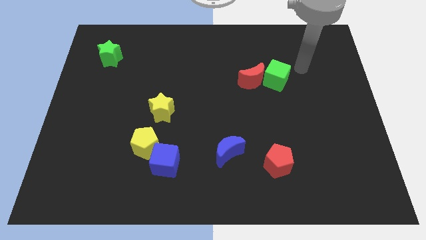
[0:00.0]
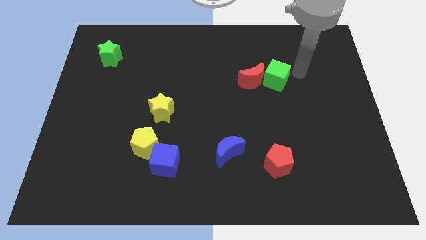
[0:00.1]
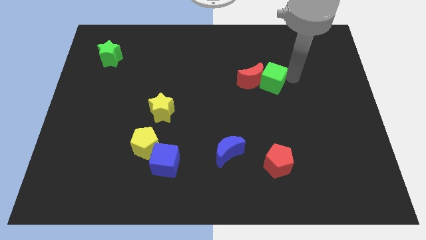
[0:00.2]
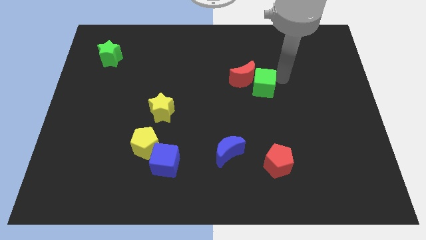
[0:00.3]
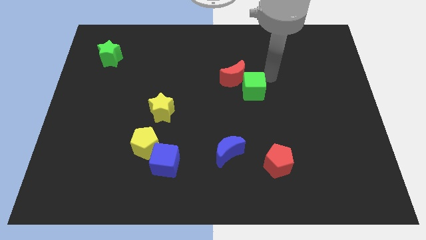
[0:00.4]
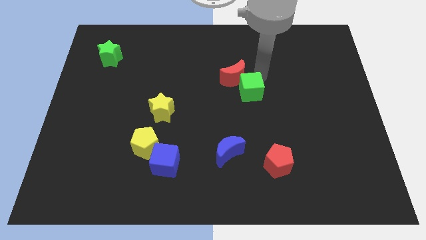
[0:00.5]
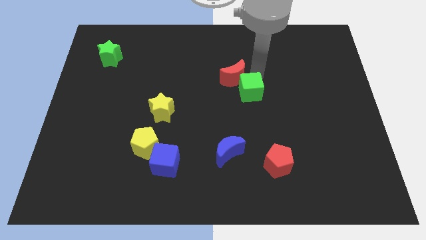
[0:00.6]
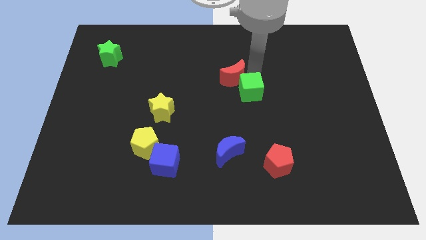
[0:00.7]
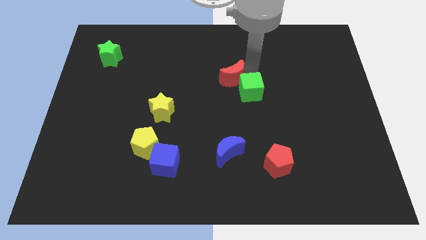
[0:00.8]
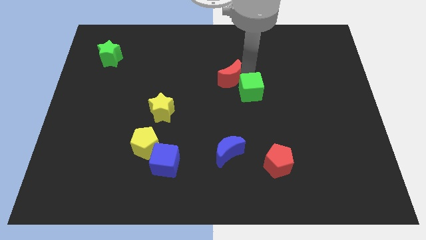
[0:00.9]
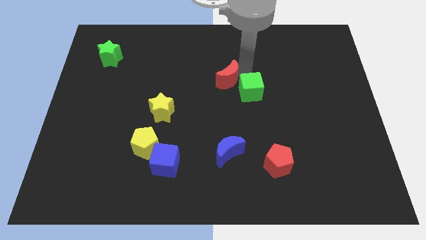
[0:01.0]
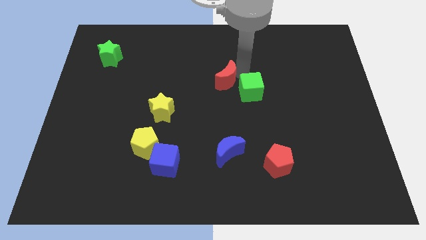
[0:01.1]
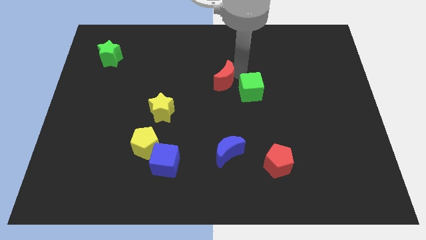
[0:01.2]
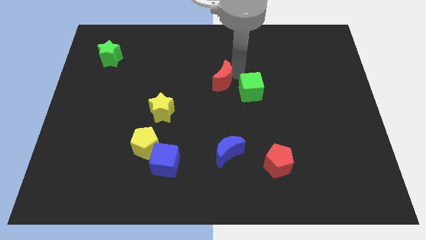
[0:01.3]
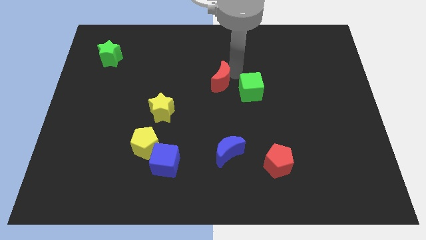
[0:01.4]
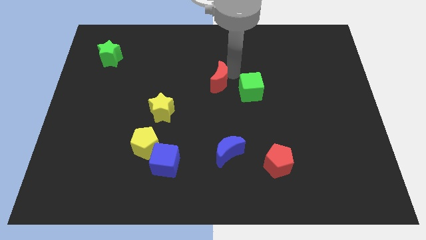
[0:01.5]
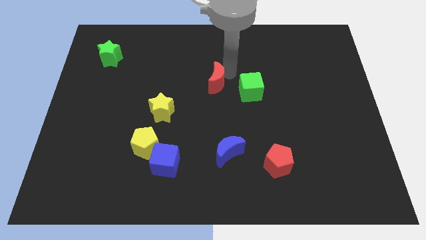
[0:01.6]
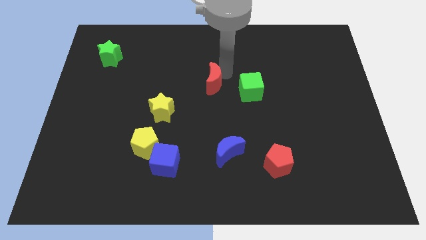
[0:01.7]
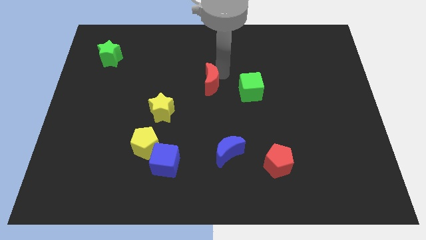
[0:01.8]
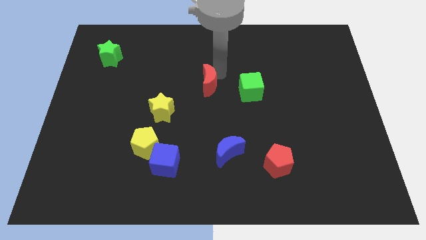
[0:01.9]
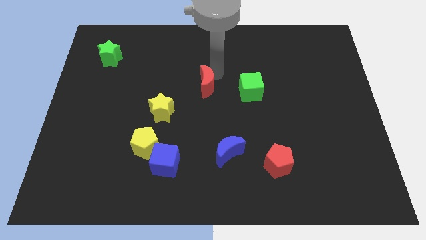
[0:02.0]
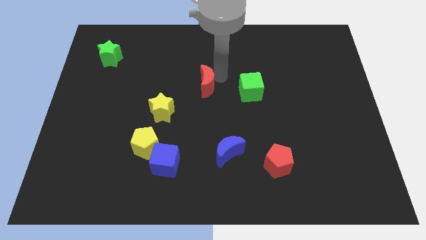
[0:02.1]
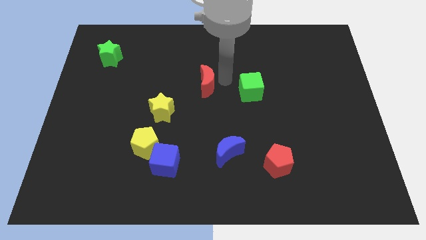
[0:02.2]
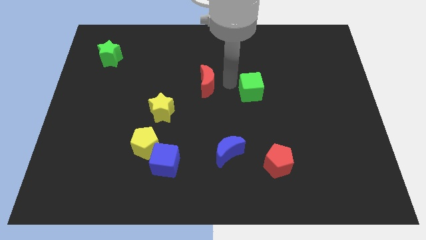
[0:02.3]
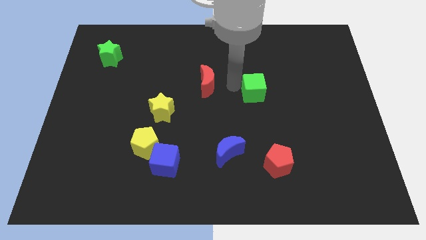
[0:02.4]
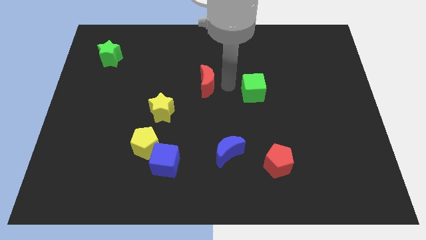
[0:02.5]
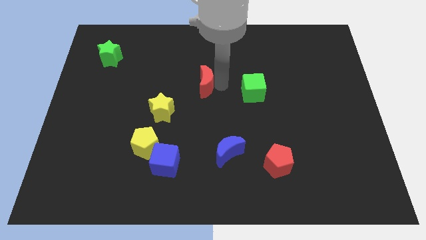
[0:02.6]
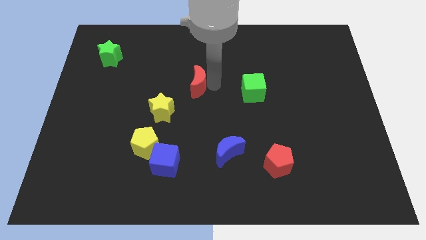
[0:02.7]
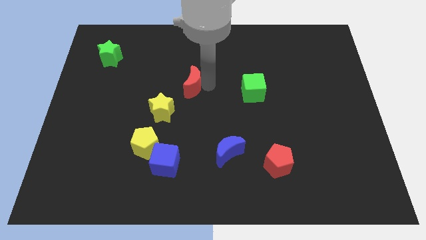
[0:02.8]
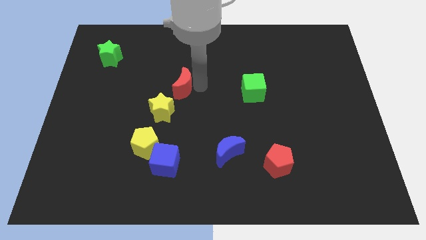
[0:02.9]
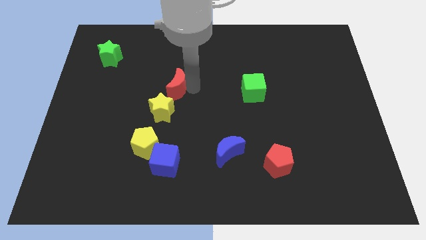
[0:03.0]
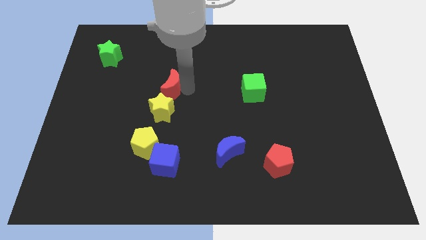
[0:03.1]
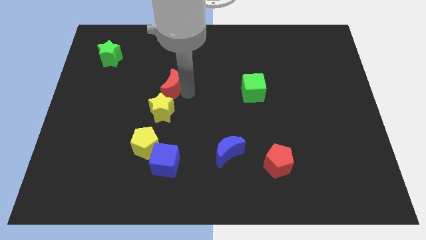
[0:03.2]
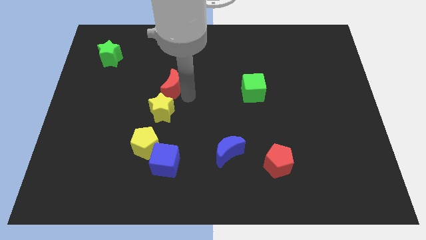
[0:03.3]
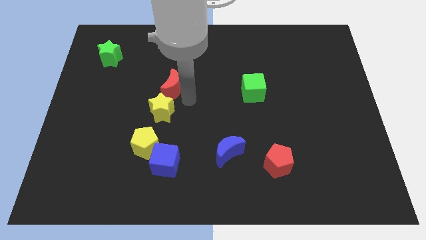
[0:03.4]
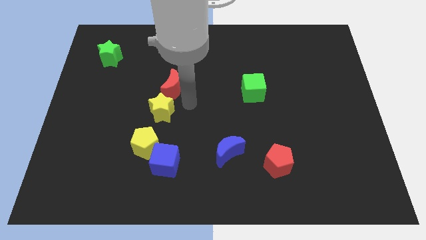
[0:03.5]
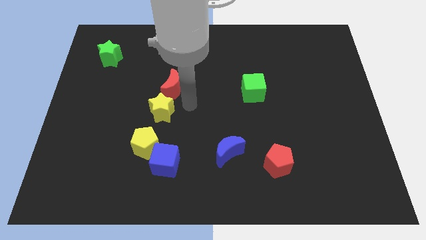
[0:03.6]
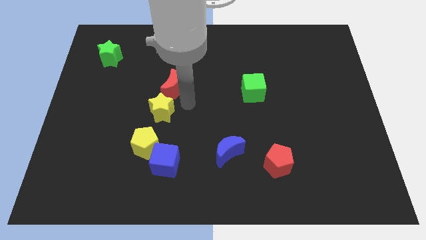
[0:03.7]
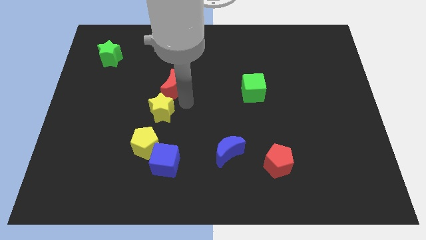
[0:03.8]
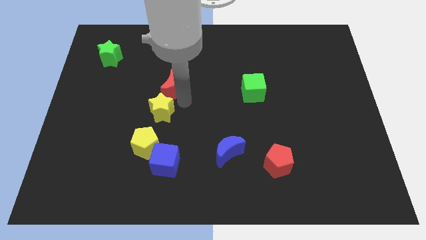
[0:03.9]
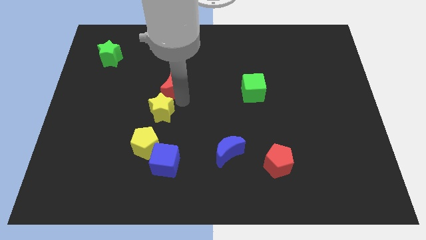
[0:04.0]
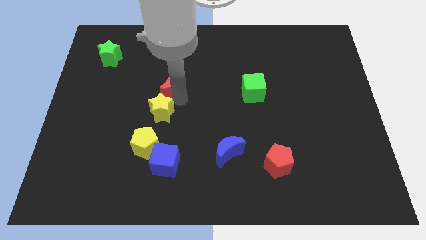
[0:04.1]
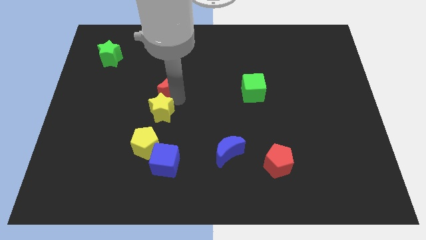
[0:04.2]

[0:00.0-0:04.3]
move the red moon left

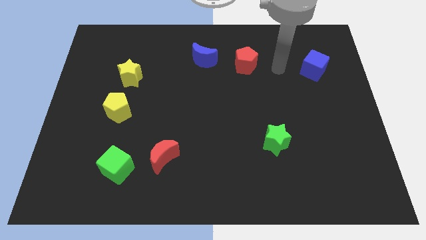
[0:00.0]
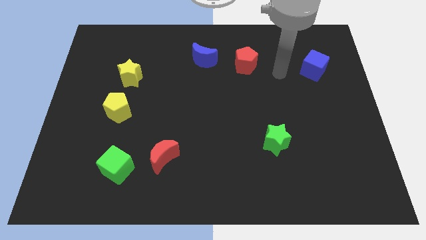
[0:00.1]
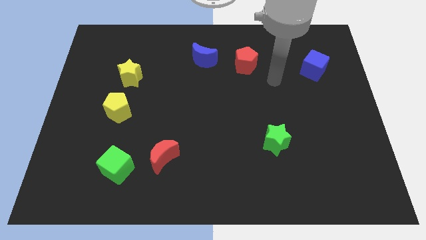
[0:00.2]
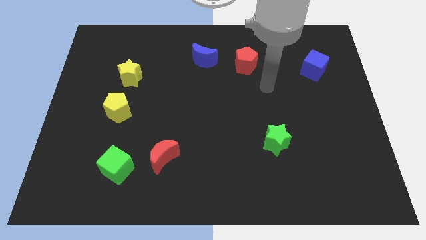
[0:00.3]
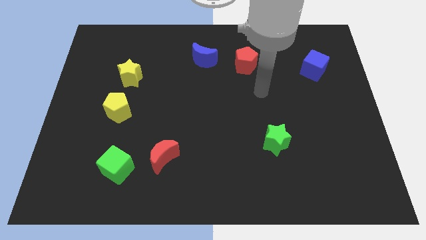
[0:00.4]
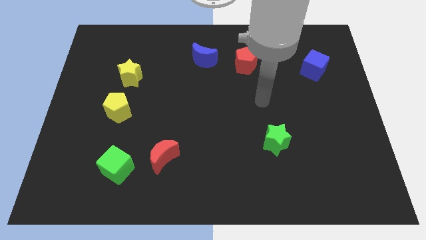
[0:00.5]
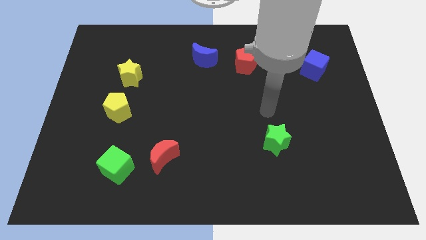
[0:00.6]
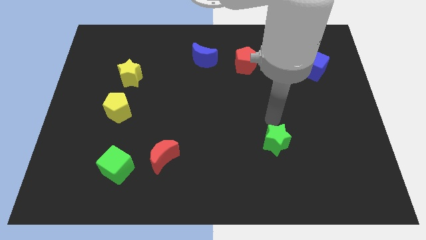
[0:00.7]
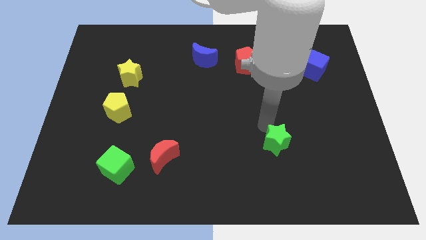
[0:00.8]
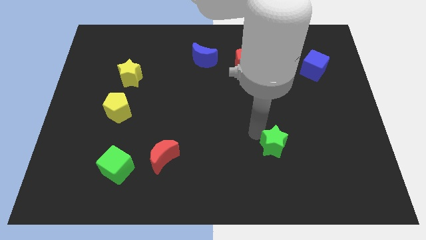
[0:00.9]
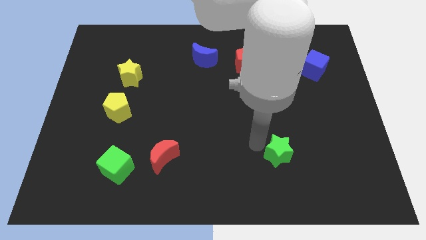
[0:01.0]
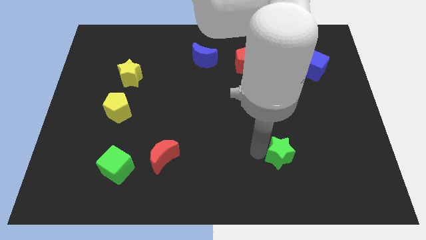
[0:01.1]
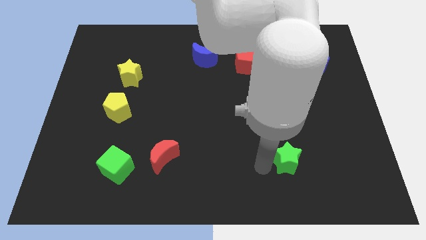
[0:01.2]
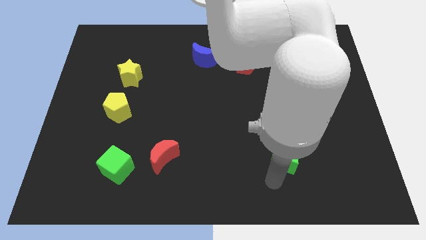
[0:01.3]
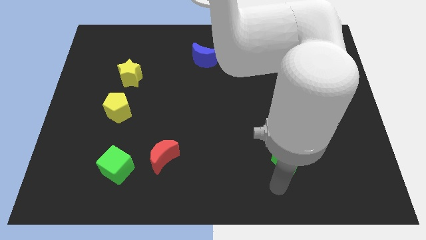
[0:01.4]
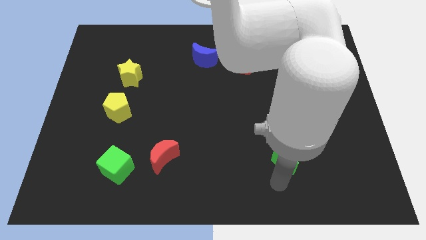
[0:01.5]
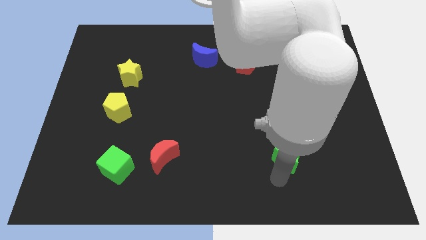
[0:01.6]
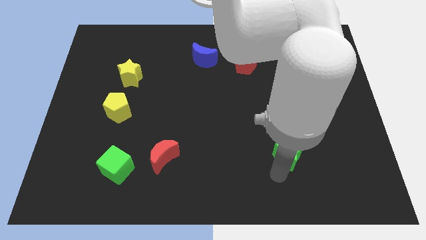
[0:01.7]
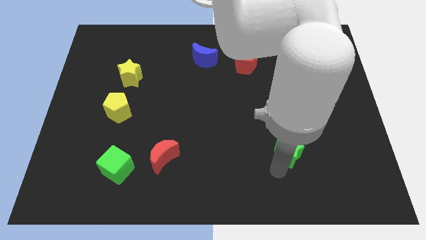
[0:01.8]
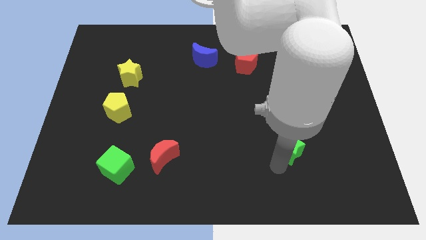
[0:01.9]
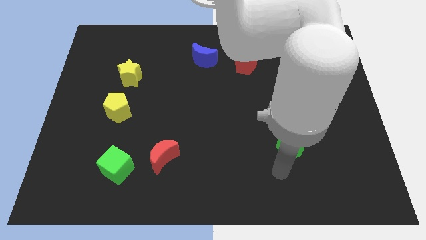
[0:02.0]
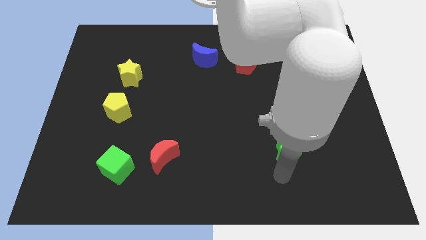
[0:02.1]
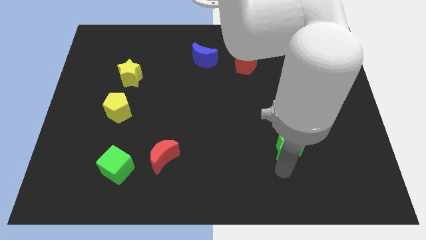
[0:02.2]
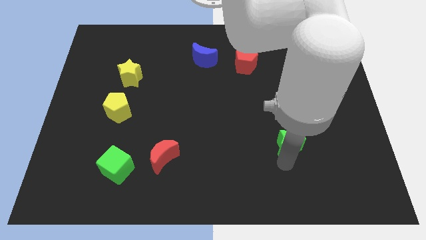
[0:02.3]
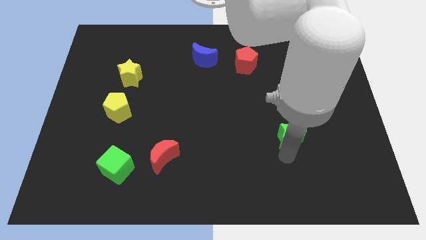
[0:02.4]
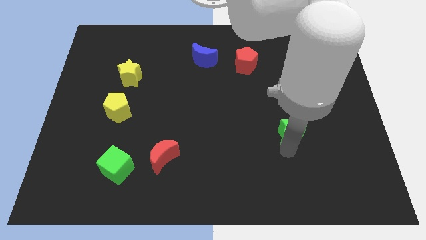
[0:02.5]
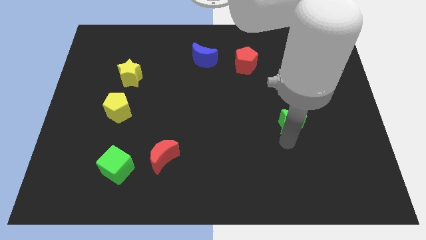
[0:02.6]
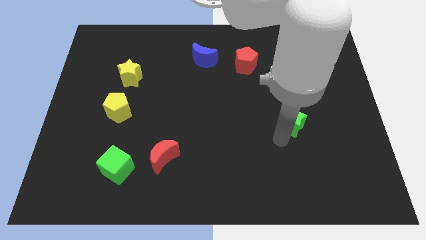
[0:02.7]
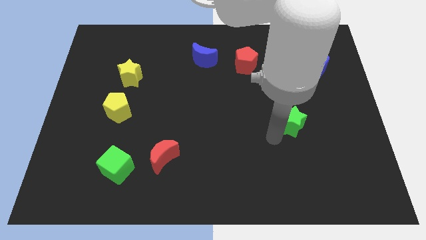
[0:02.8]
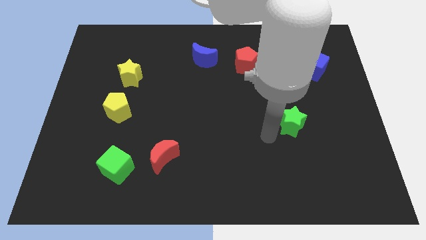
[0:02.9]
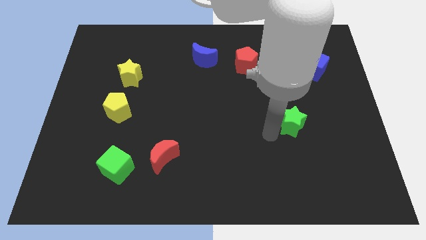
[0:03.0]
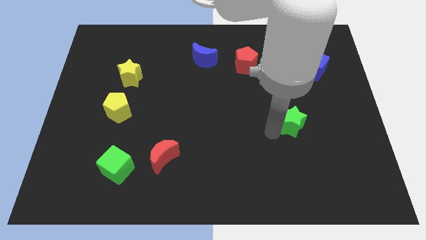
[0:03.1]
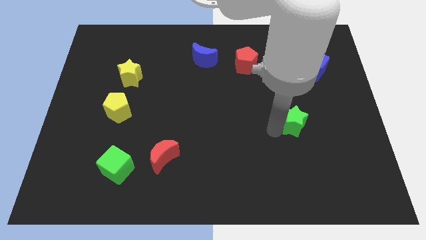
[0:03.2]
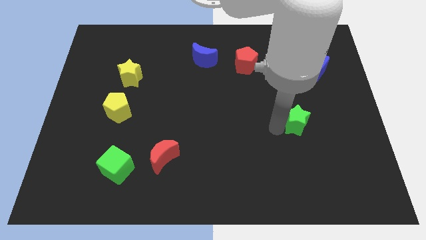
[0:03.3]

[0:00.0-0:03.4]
slightly move the green star up and to the right
